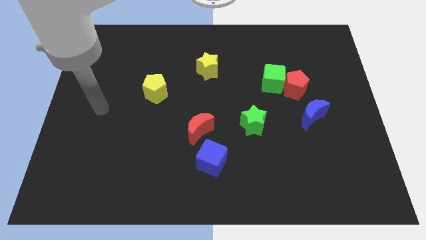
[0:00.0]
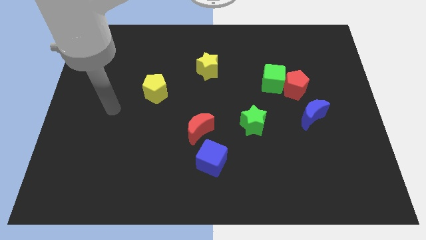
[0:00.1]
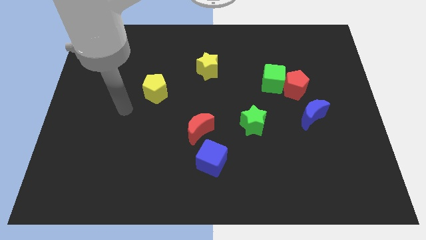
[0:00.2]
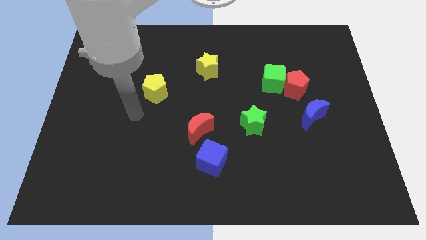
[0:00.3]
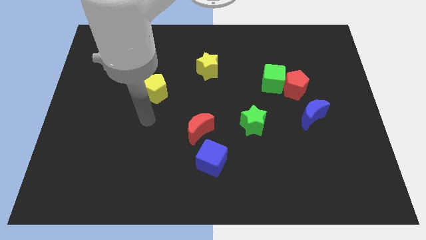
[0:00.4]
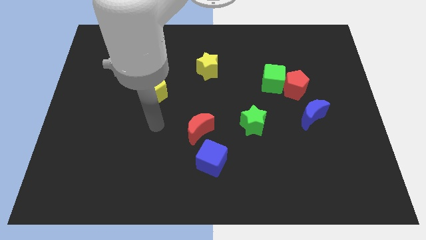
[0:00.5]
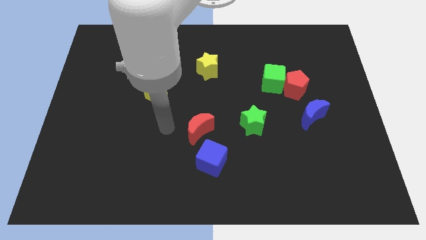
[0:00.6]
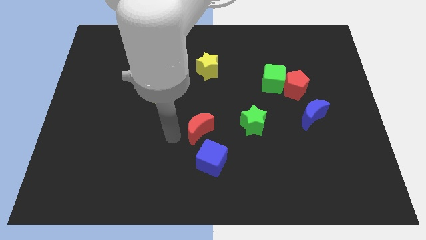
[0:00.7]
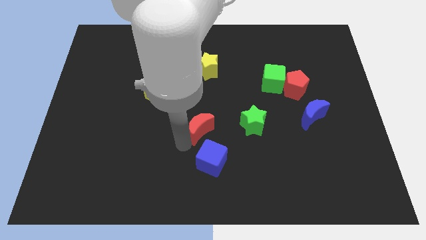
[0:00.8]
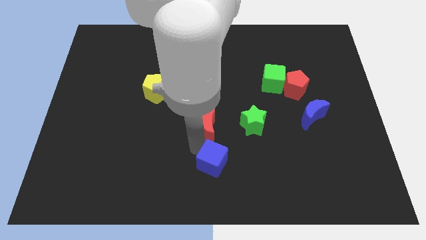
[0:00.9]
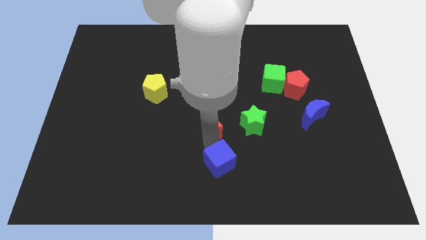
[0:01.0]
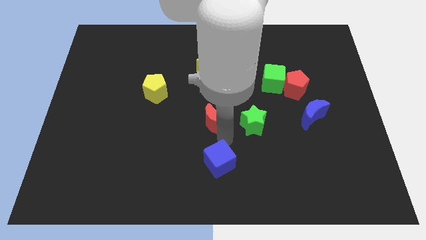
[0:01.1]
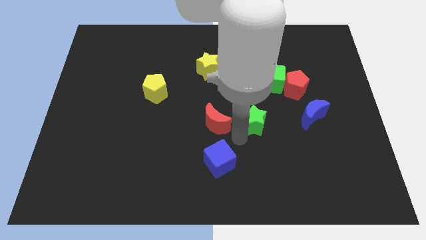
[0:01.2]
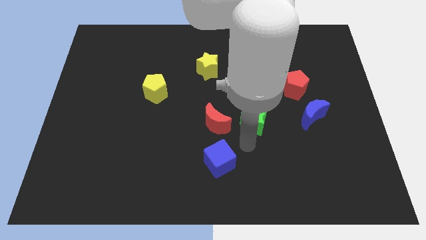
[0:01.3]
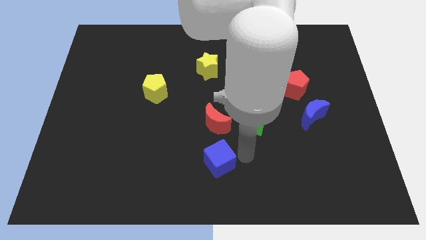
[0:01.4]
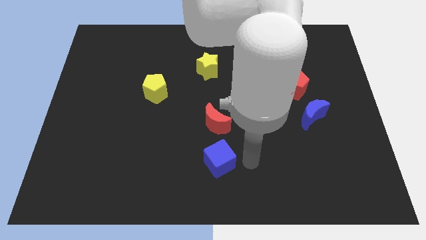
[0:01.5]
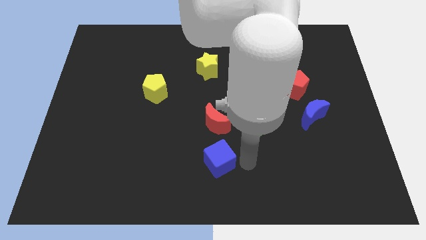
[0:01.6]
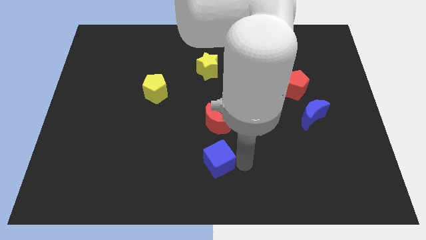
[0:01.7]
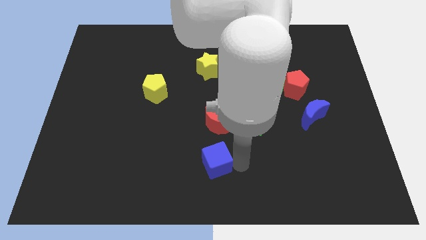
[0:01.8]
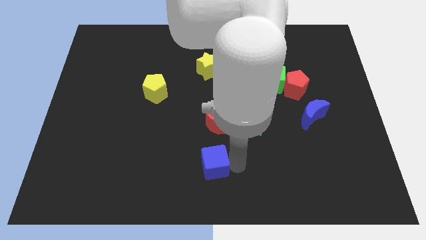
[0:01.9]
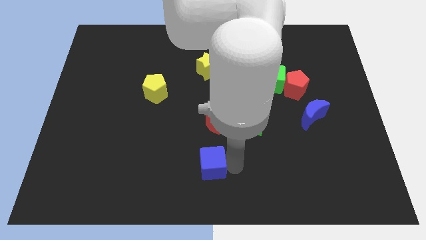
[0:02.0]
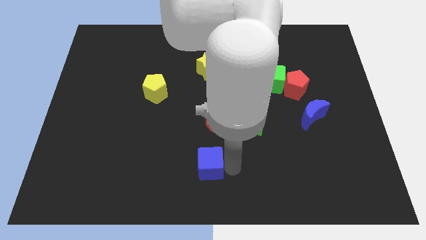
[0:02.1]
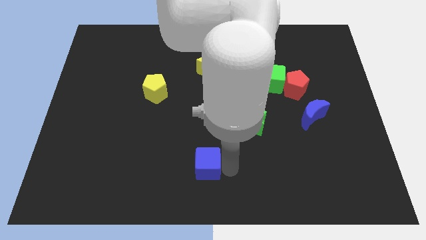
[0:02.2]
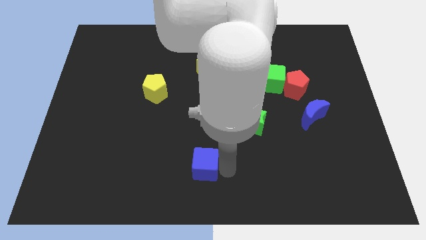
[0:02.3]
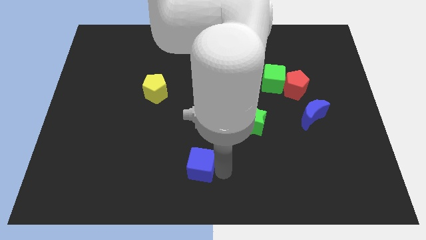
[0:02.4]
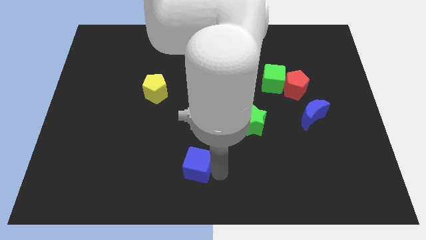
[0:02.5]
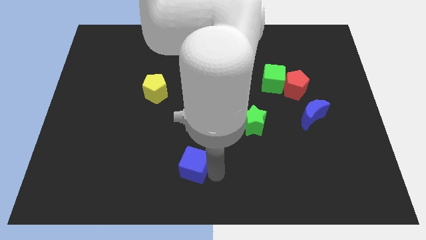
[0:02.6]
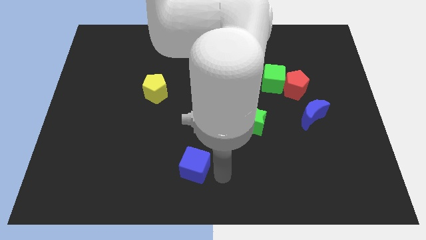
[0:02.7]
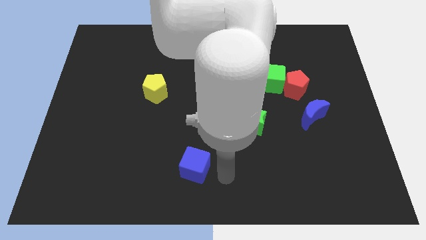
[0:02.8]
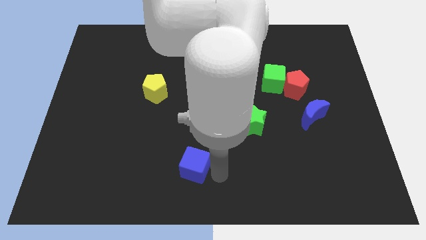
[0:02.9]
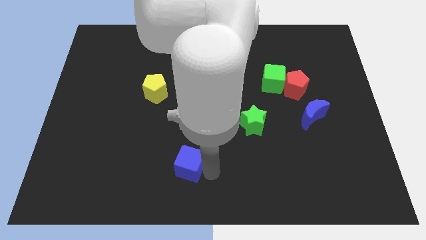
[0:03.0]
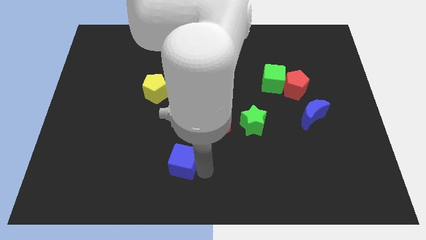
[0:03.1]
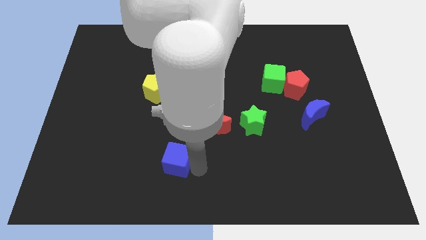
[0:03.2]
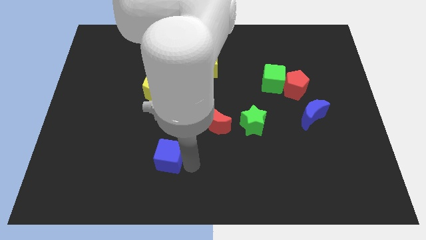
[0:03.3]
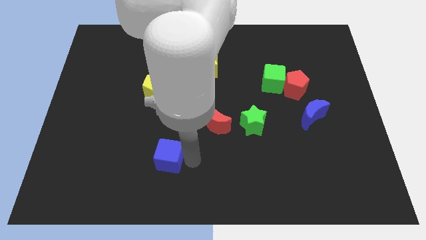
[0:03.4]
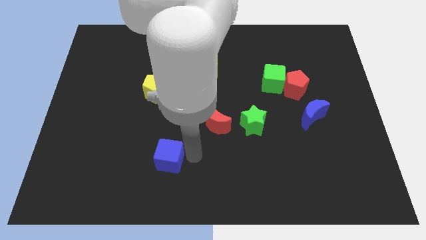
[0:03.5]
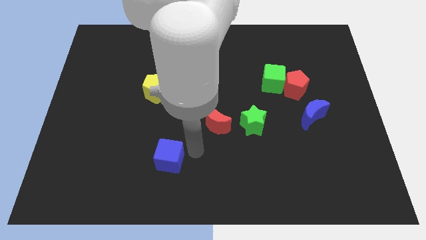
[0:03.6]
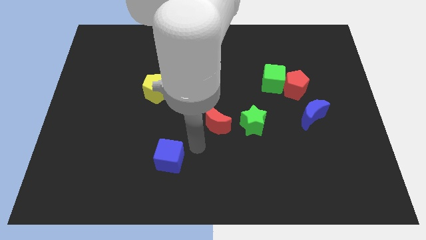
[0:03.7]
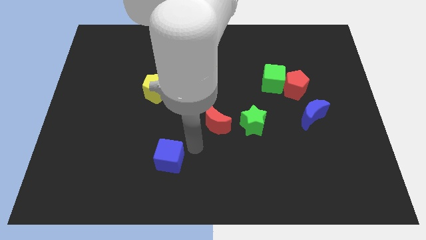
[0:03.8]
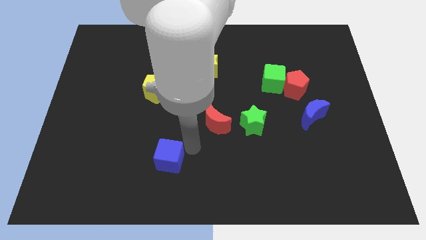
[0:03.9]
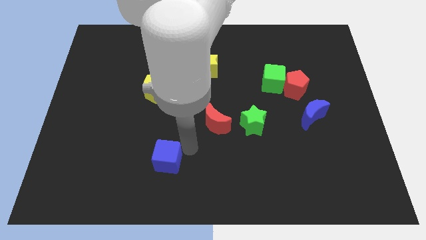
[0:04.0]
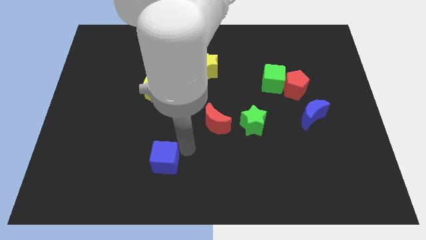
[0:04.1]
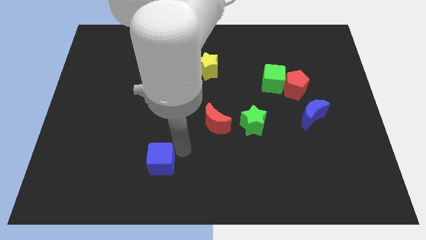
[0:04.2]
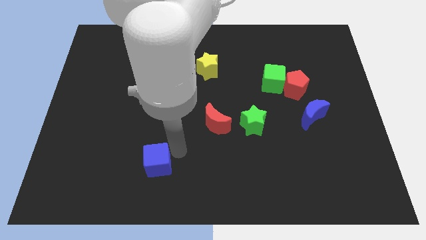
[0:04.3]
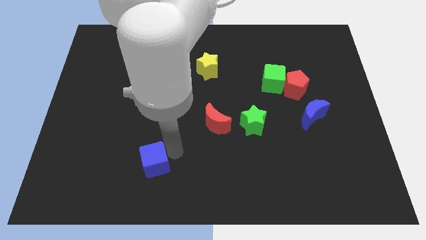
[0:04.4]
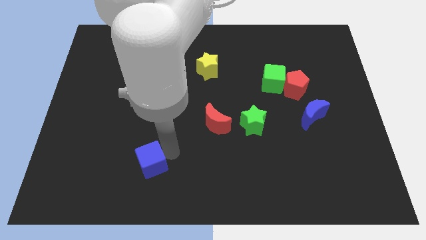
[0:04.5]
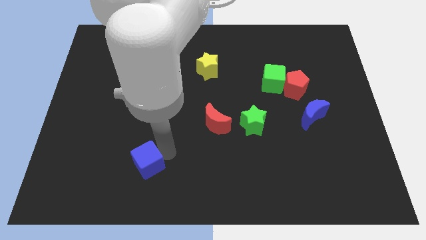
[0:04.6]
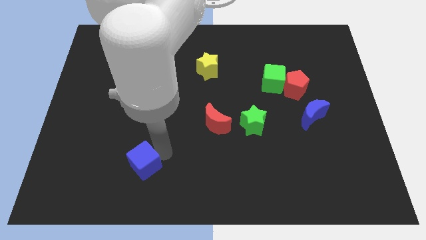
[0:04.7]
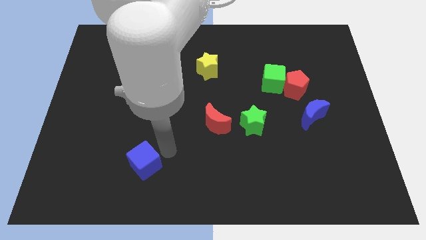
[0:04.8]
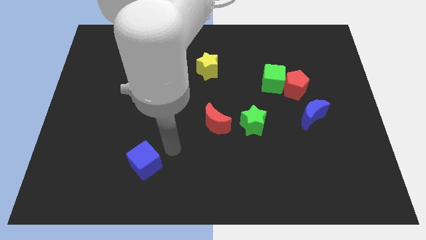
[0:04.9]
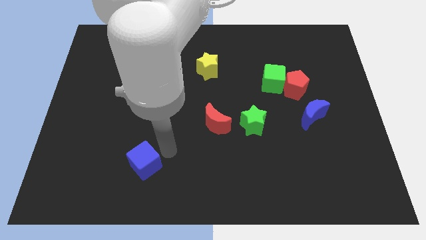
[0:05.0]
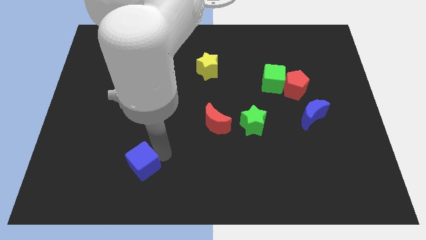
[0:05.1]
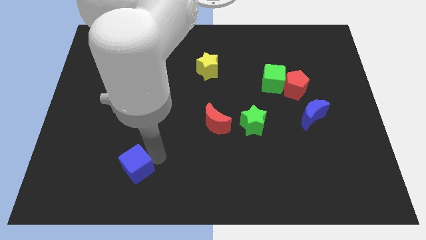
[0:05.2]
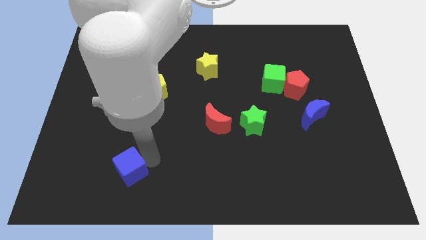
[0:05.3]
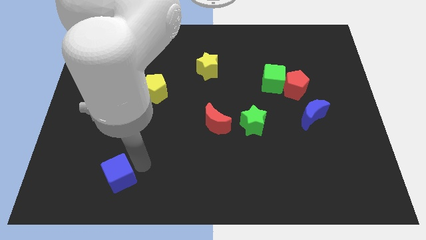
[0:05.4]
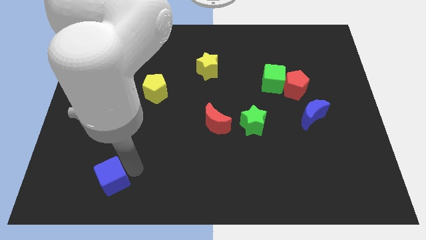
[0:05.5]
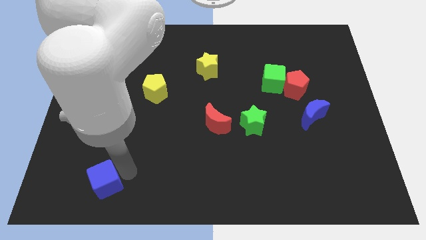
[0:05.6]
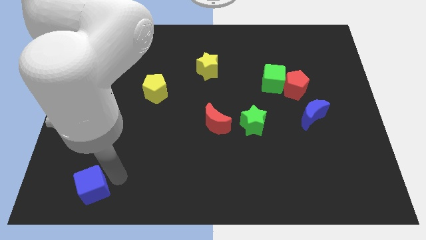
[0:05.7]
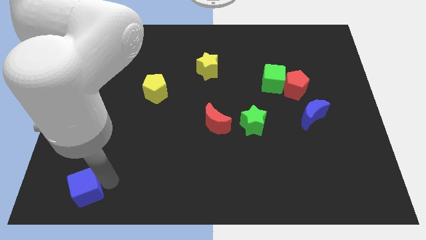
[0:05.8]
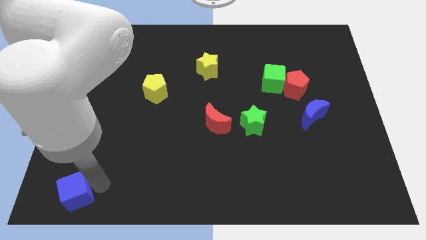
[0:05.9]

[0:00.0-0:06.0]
push the blue cube to the lower left corner

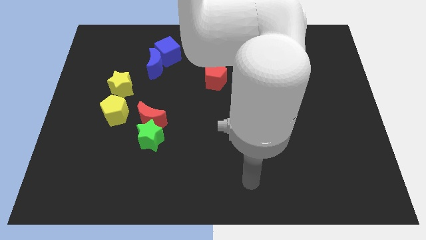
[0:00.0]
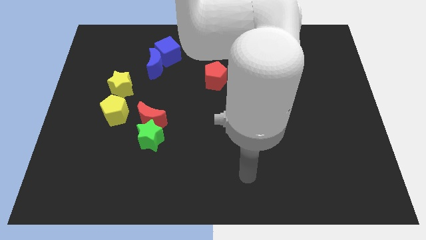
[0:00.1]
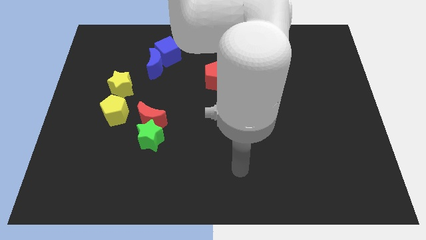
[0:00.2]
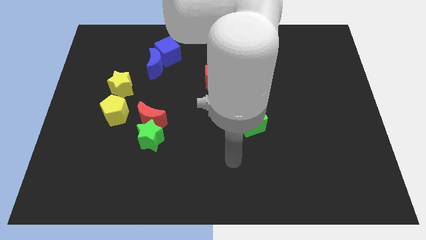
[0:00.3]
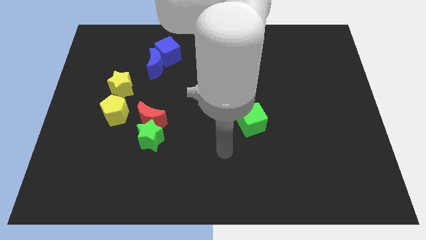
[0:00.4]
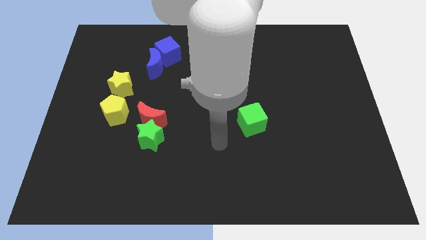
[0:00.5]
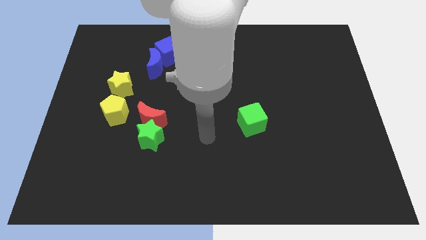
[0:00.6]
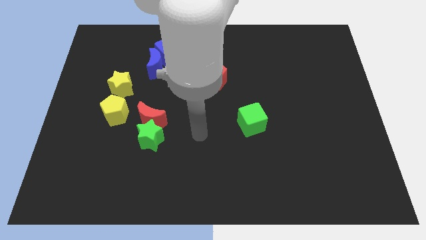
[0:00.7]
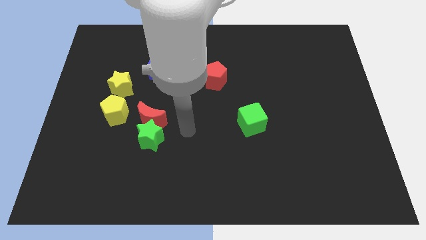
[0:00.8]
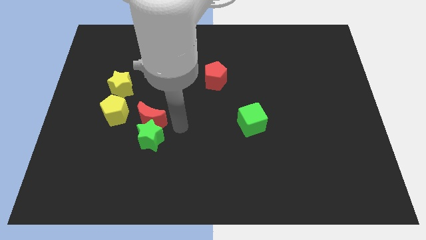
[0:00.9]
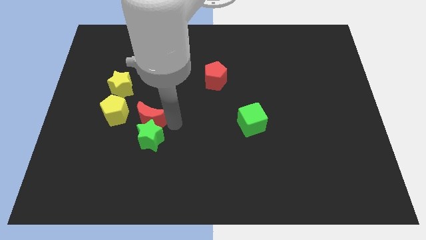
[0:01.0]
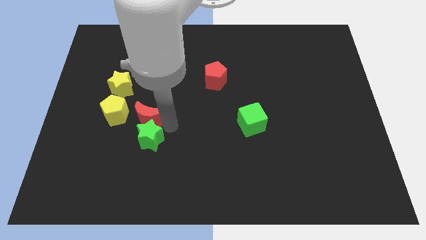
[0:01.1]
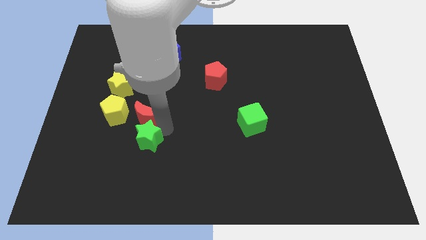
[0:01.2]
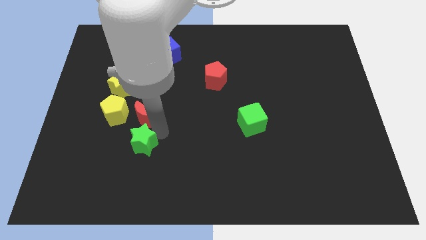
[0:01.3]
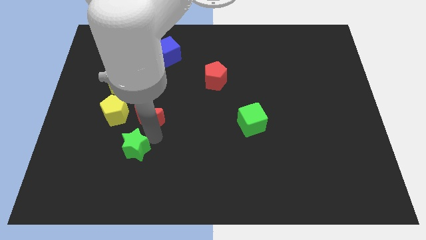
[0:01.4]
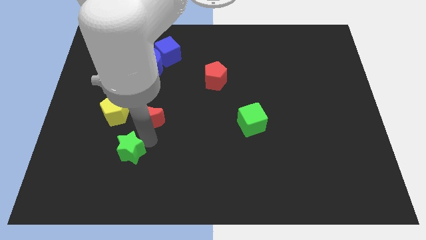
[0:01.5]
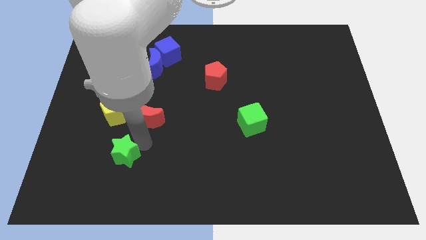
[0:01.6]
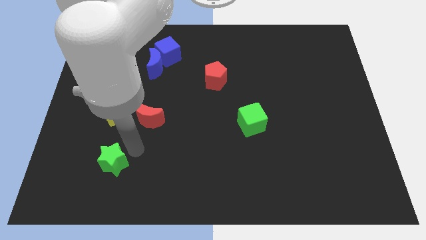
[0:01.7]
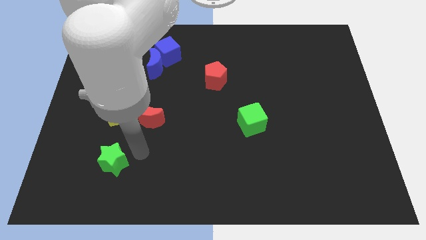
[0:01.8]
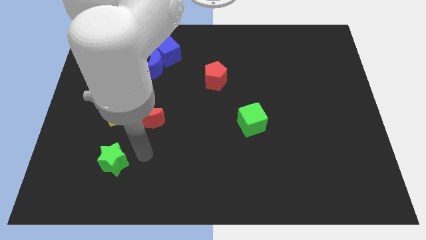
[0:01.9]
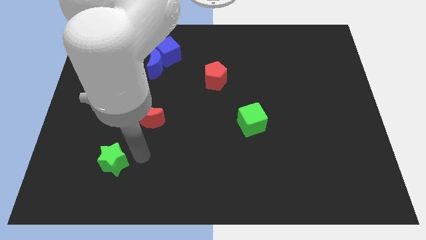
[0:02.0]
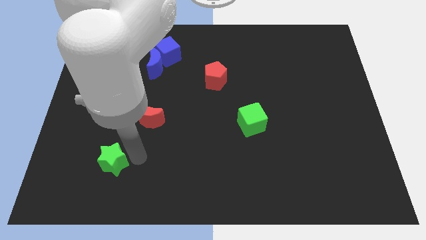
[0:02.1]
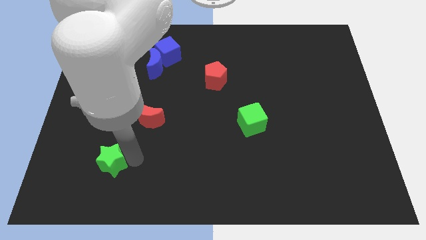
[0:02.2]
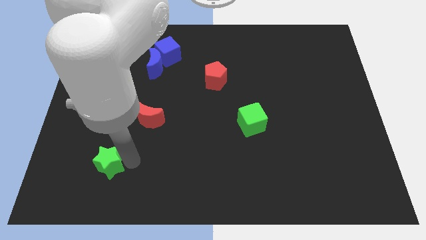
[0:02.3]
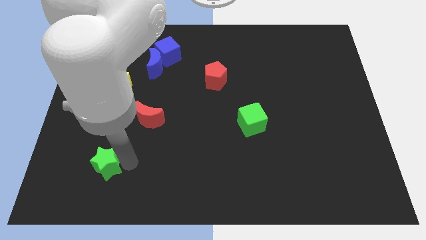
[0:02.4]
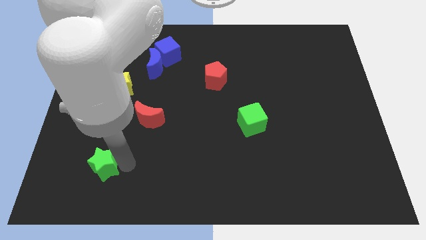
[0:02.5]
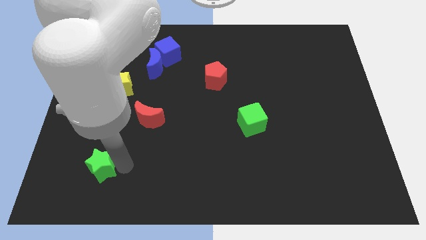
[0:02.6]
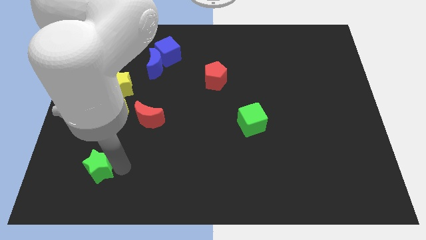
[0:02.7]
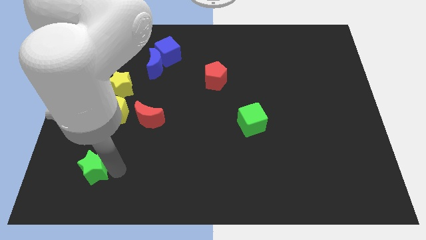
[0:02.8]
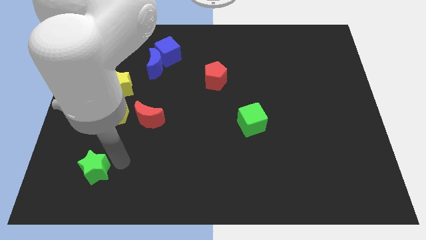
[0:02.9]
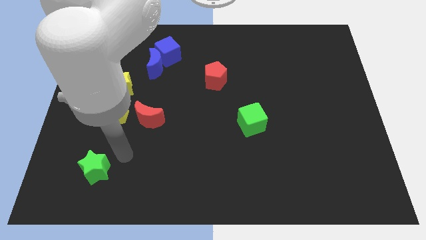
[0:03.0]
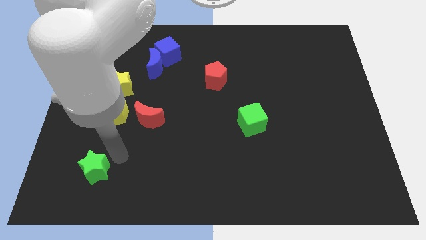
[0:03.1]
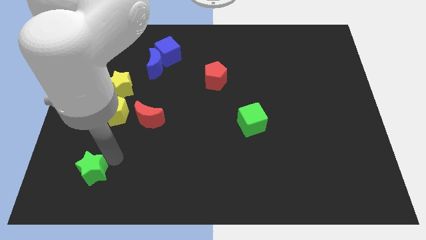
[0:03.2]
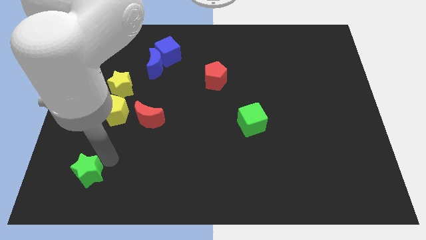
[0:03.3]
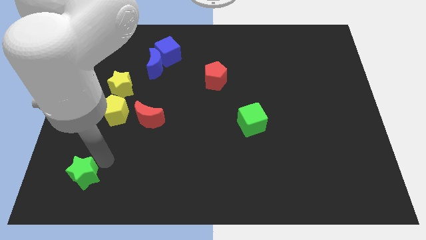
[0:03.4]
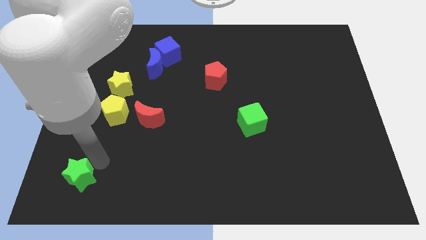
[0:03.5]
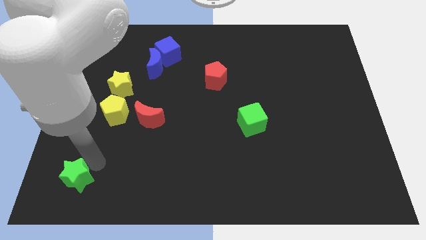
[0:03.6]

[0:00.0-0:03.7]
put the green star to the bottom left of the board
